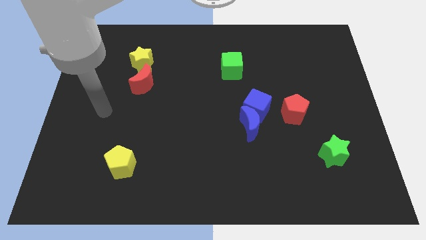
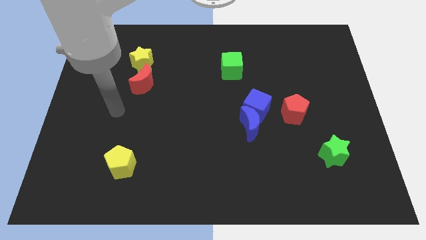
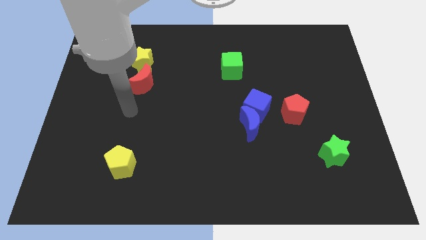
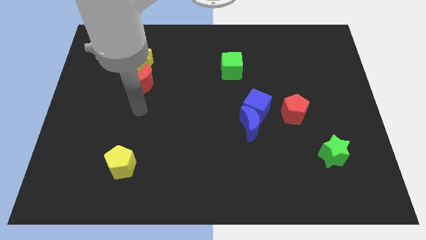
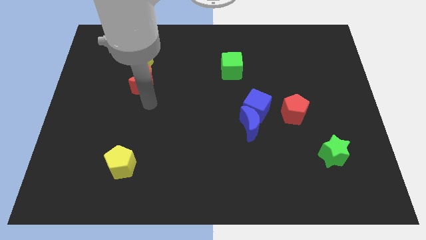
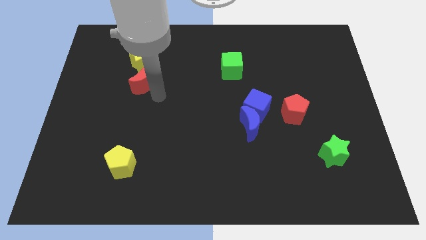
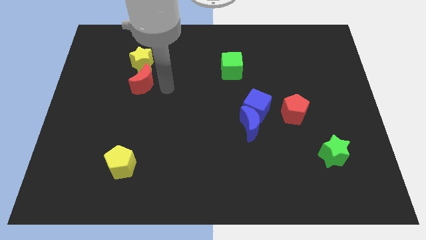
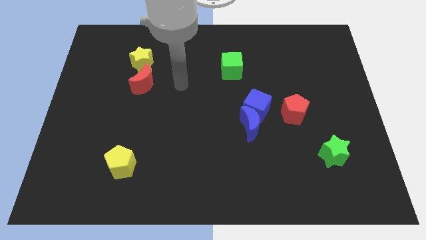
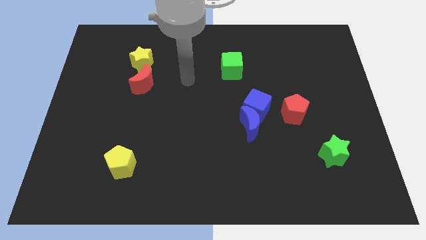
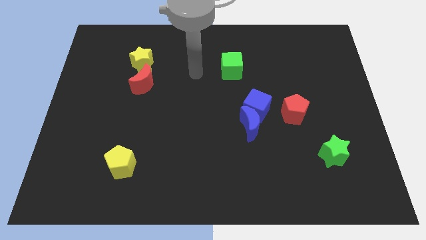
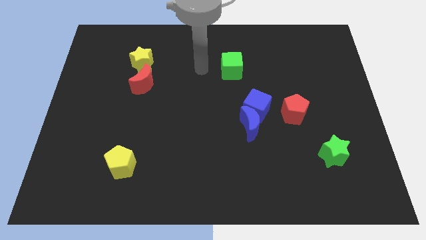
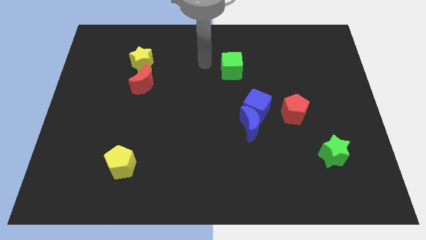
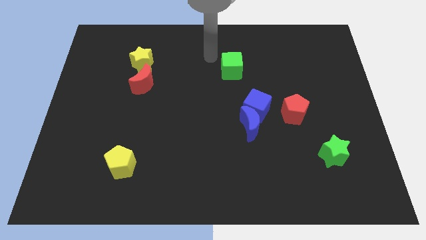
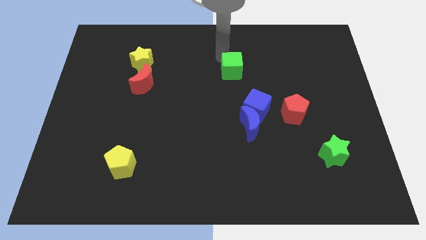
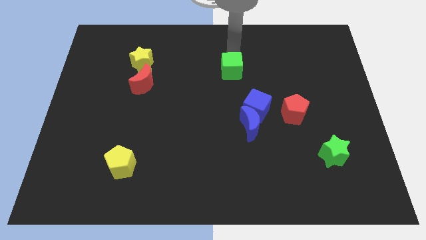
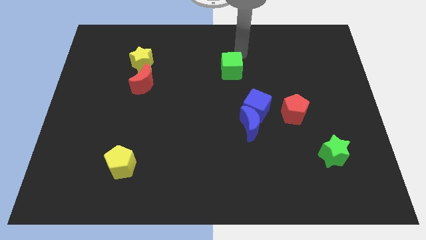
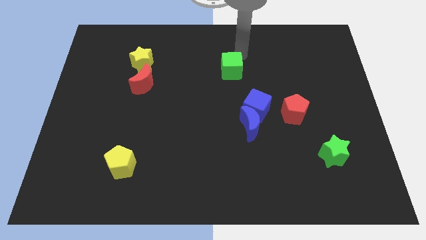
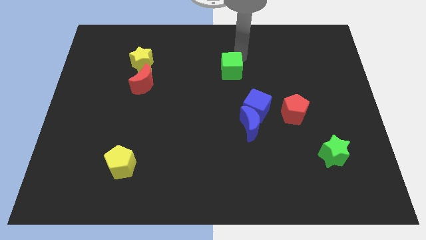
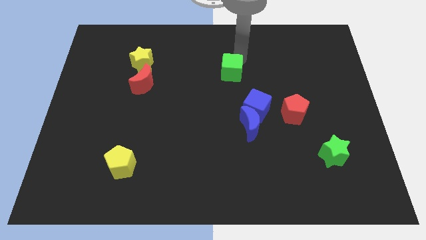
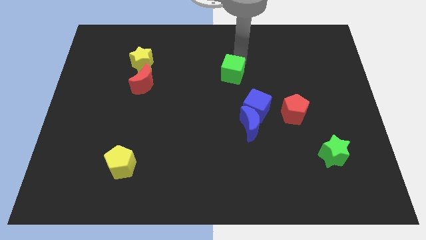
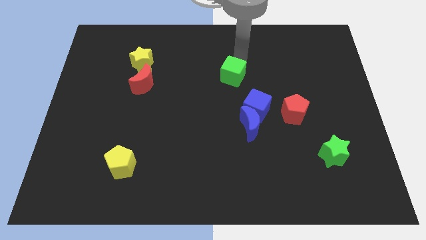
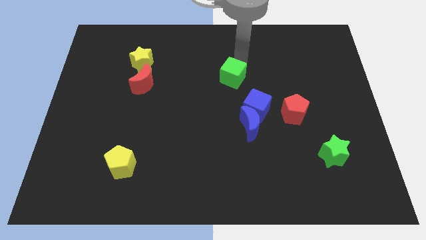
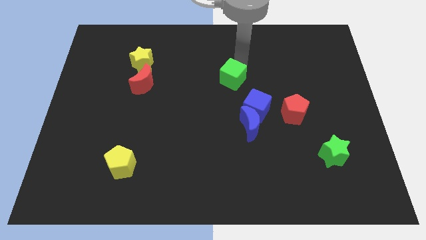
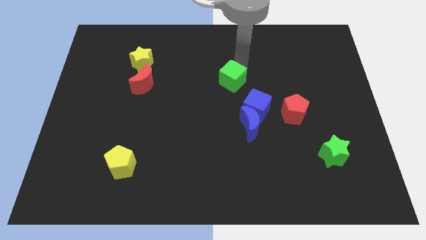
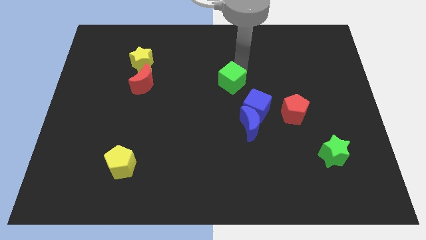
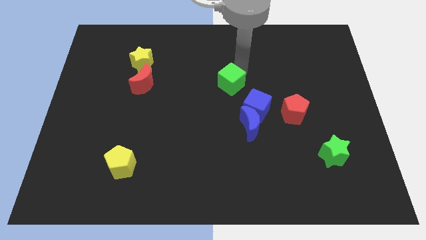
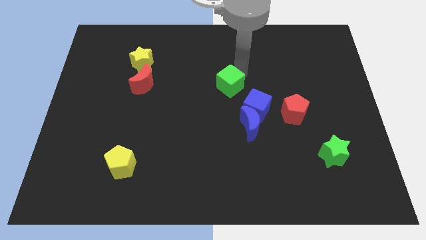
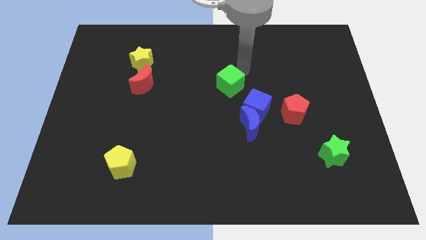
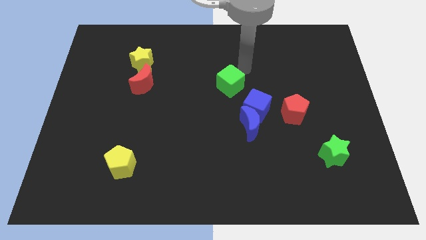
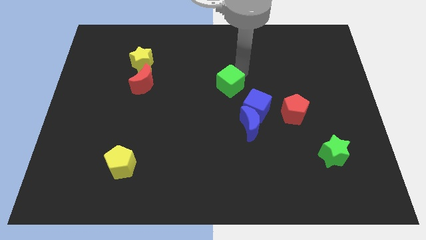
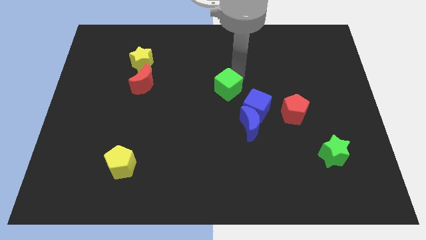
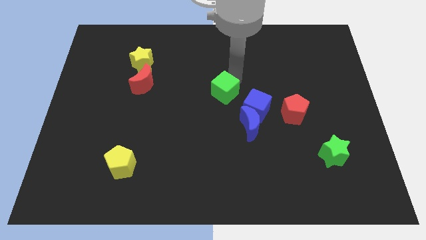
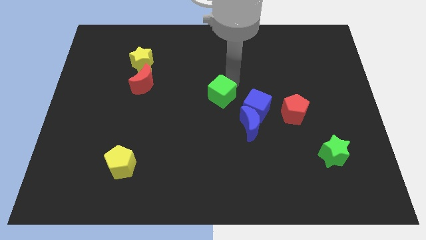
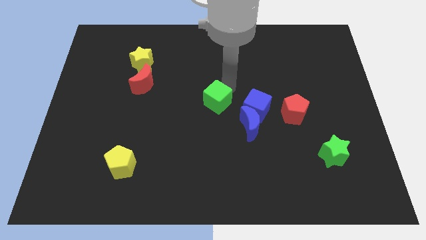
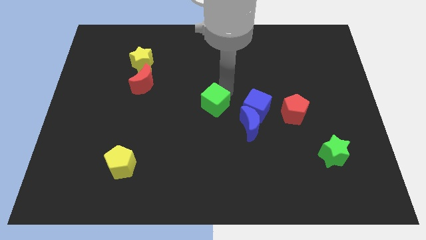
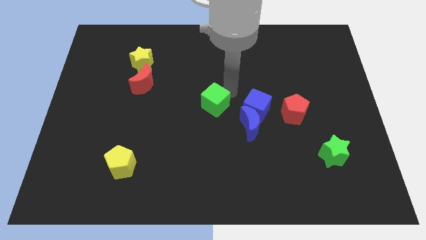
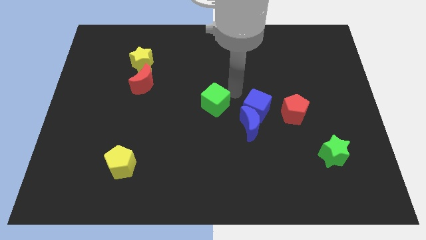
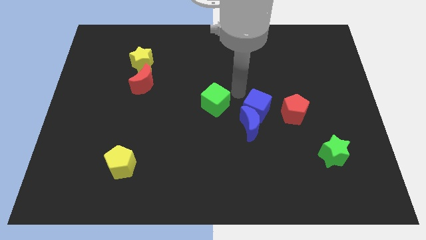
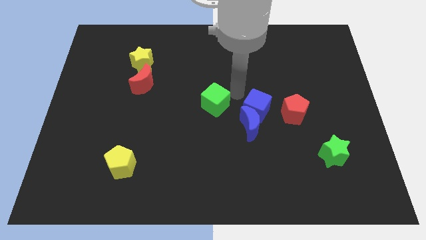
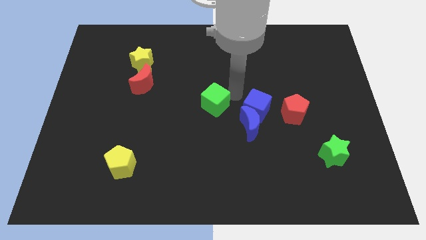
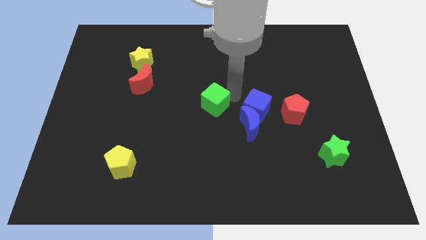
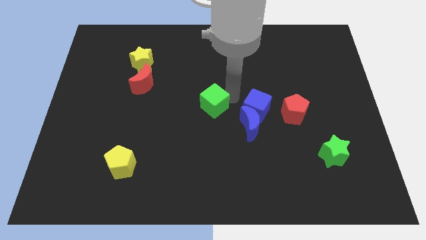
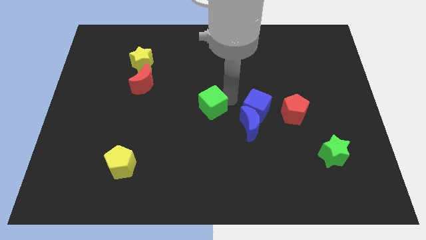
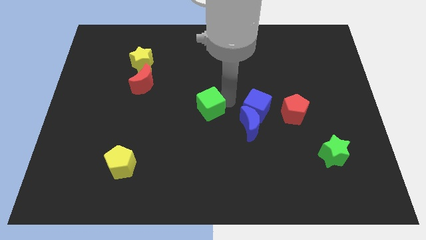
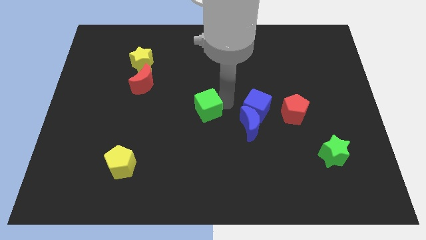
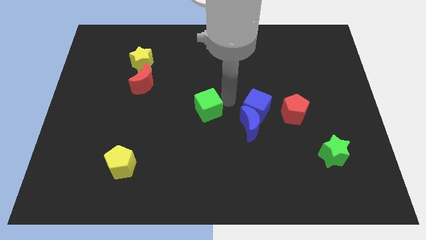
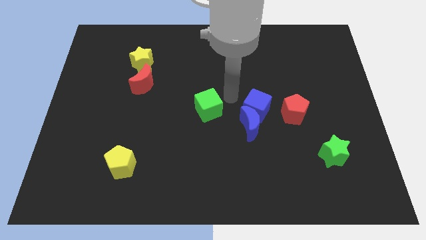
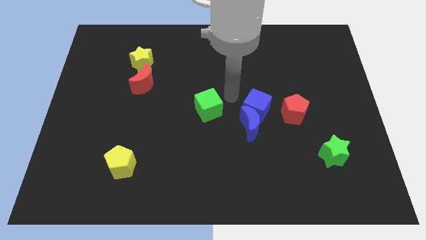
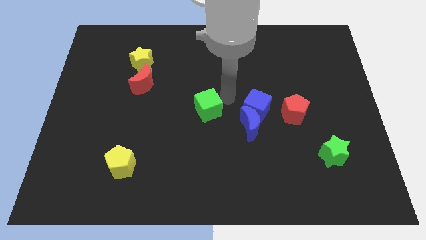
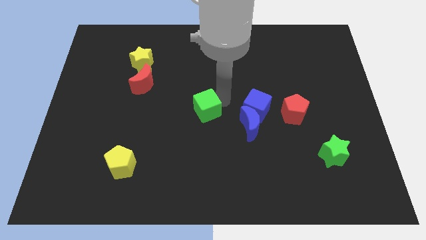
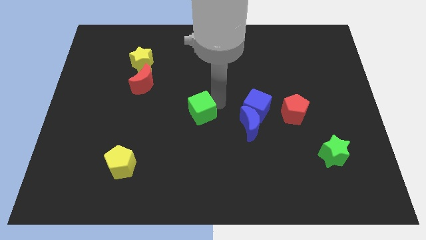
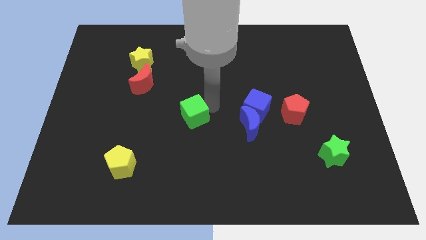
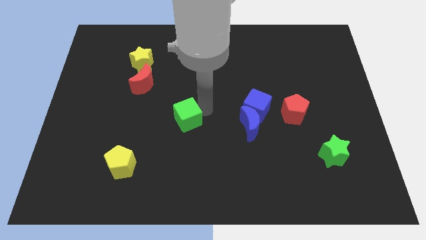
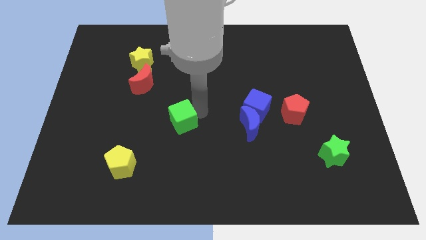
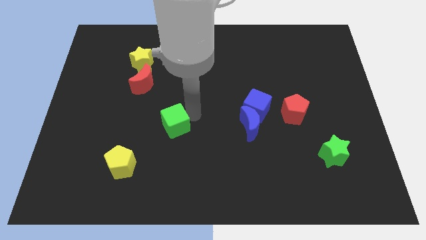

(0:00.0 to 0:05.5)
push the green cube down and to the left

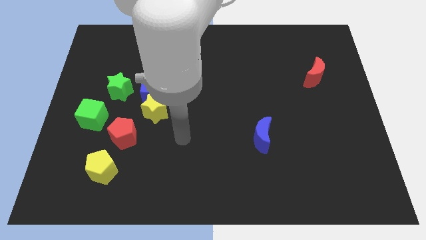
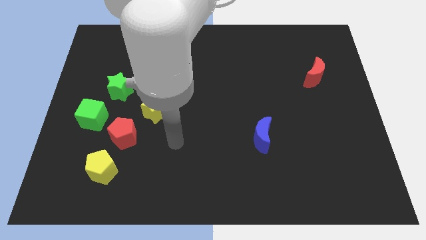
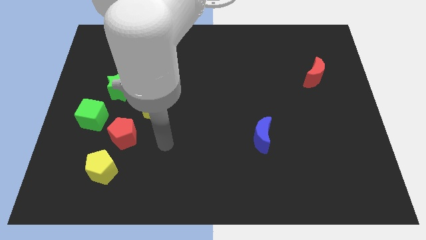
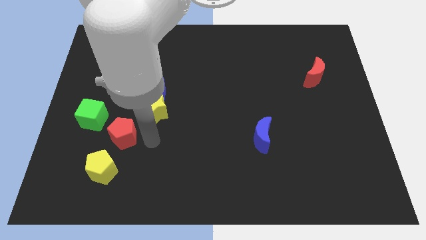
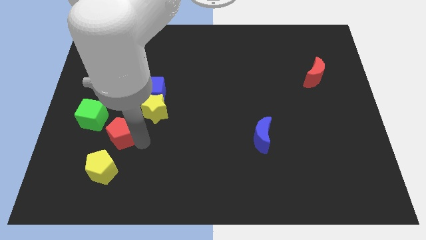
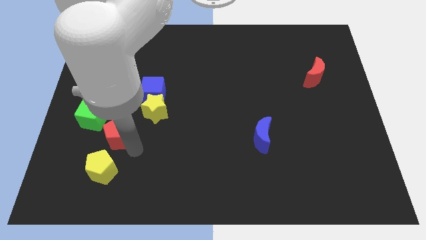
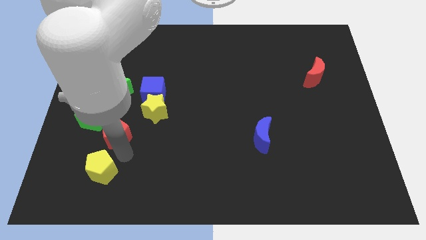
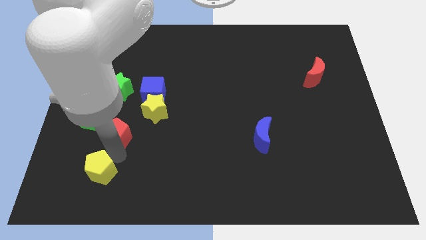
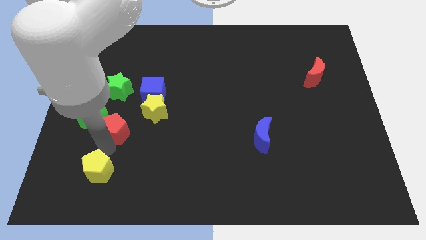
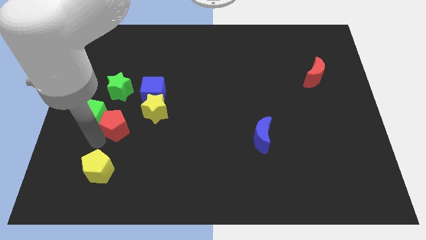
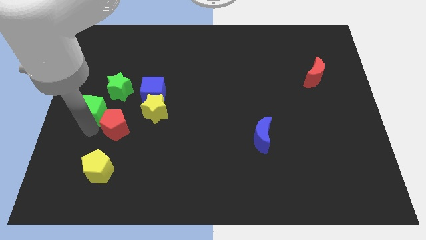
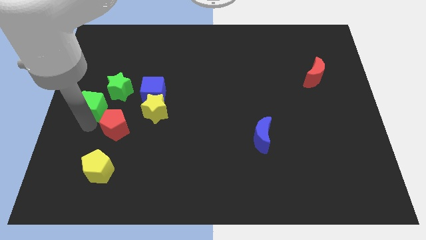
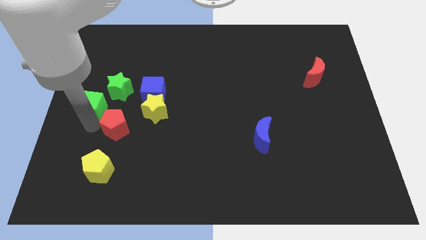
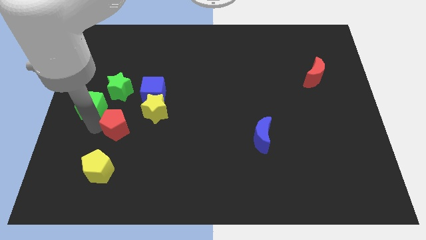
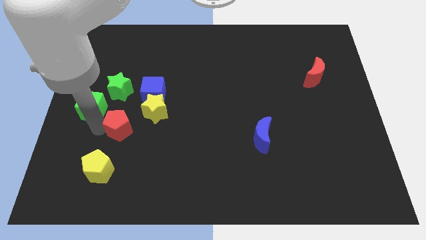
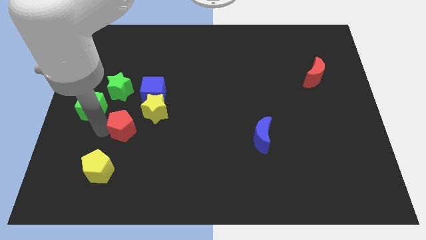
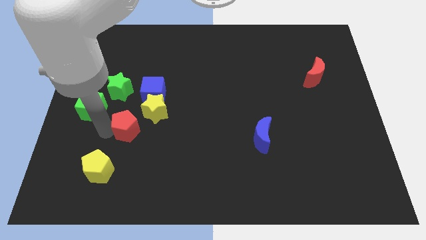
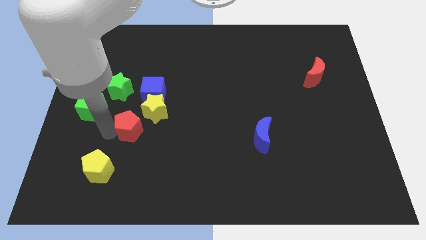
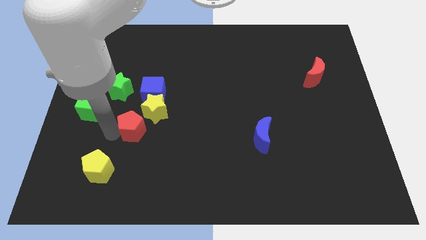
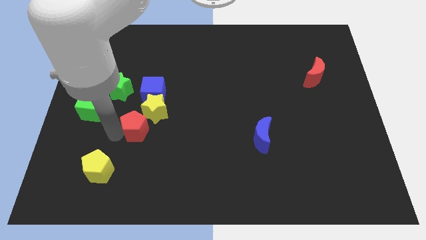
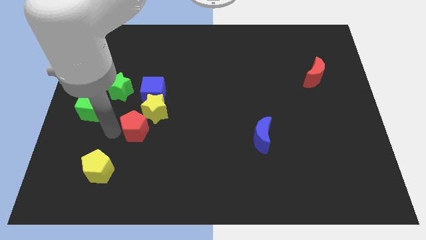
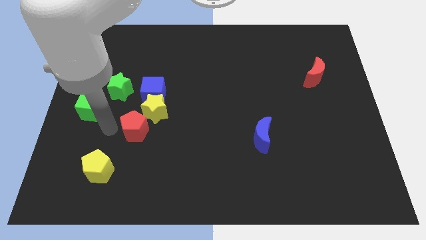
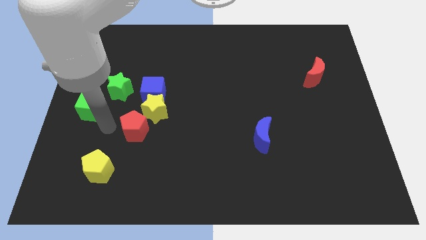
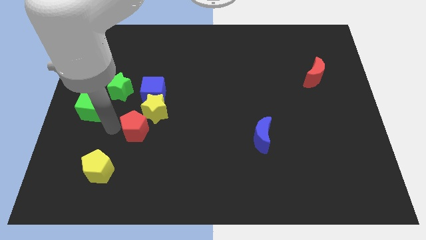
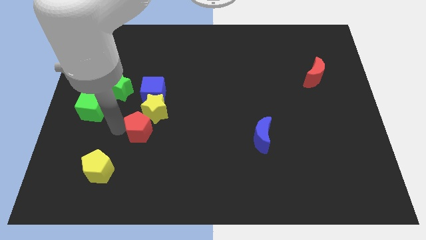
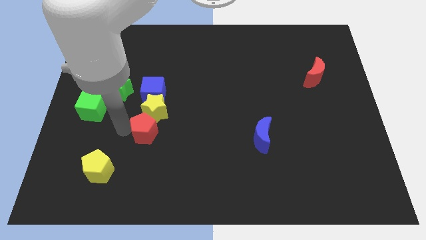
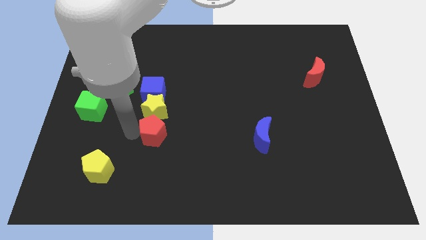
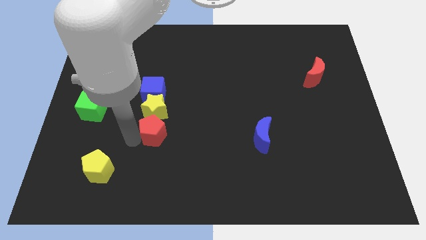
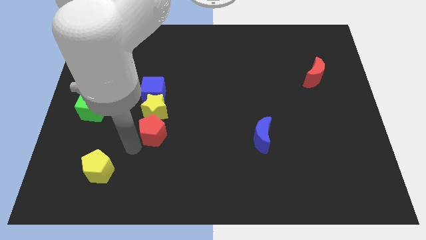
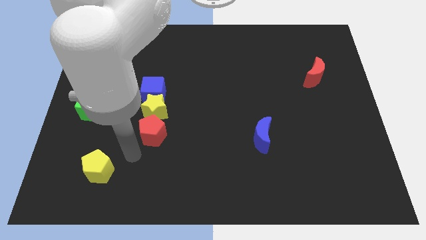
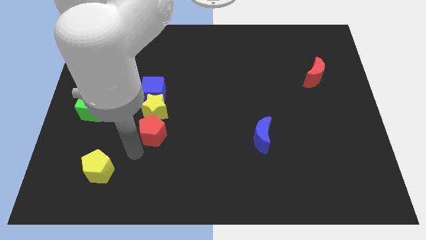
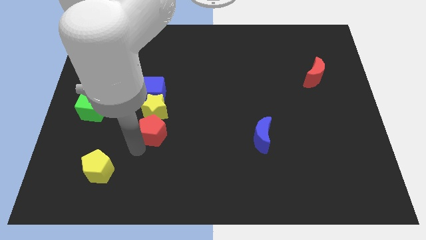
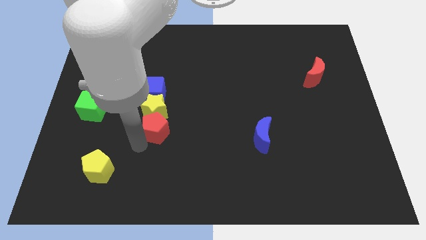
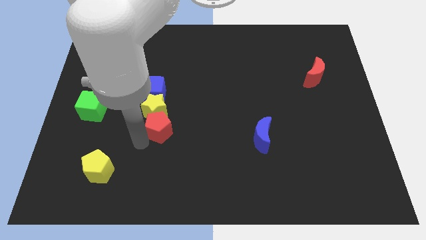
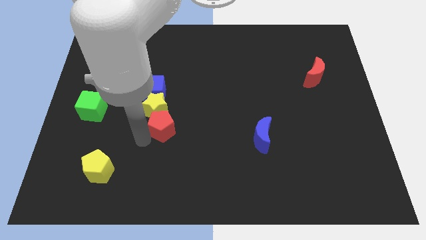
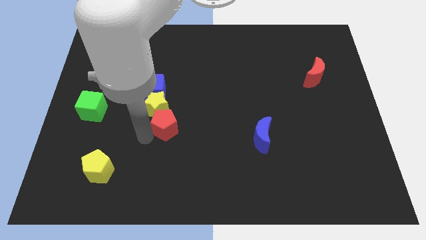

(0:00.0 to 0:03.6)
slightly slide the red pentagon upwards and then right
